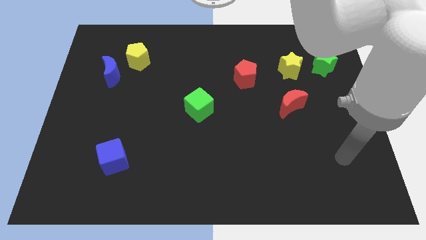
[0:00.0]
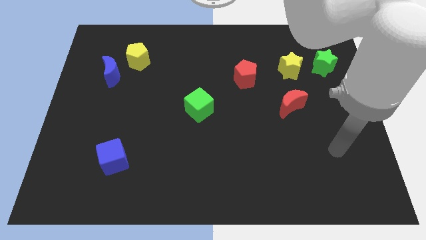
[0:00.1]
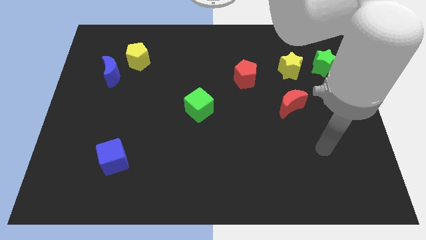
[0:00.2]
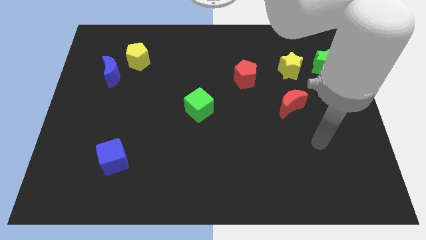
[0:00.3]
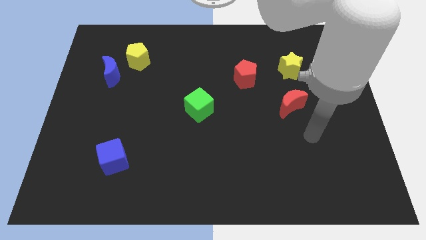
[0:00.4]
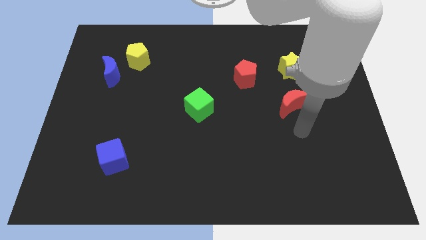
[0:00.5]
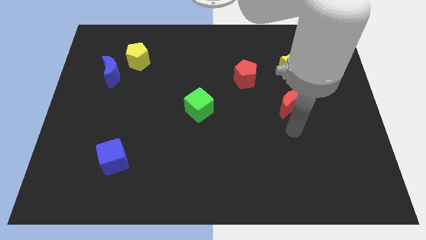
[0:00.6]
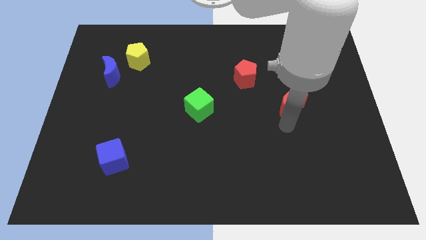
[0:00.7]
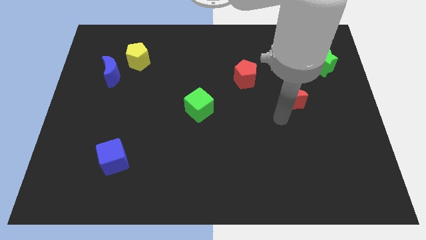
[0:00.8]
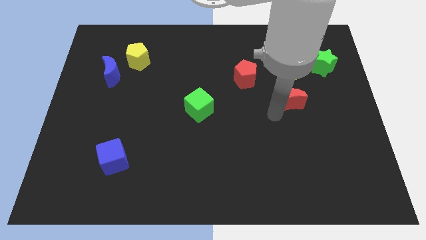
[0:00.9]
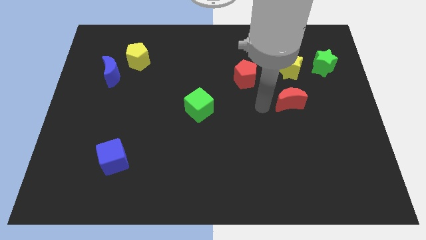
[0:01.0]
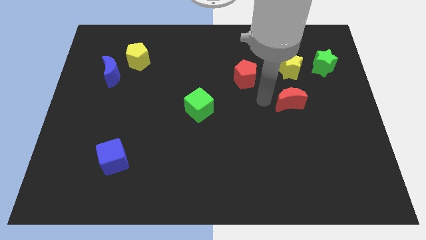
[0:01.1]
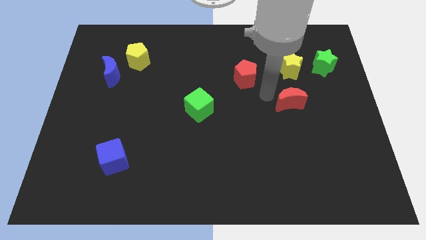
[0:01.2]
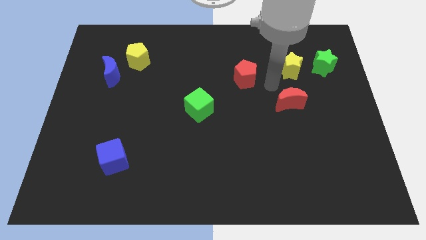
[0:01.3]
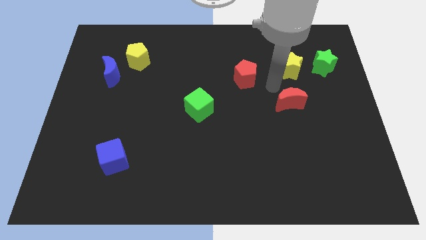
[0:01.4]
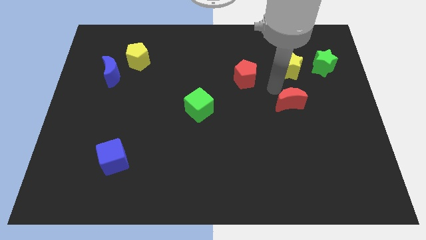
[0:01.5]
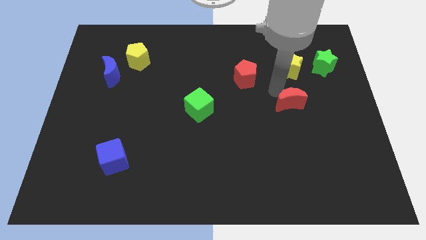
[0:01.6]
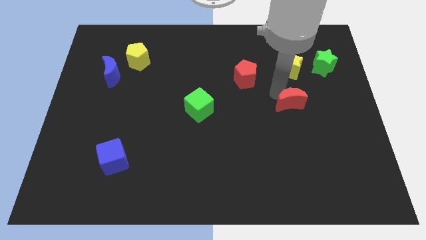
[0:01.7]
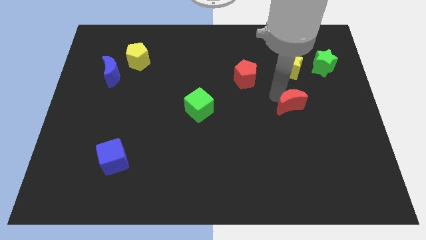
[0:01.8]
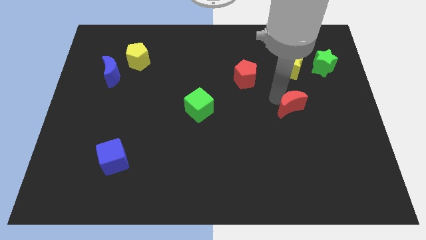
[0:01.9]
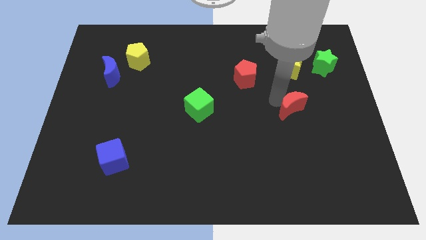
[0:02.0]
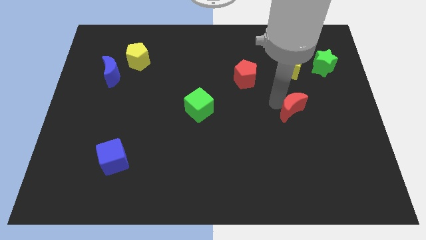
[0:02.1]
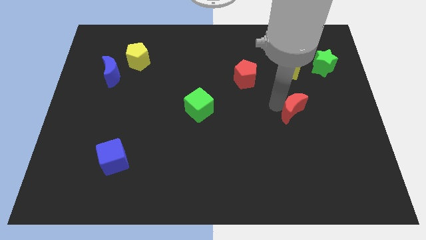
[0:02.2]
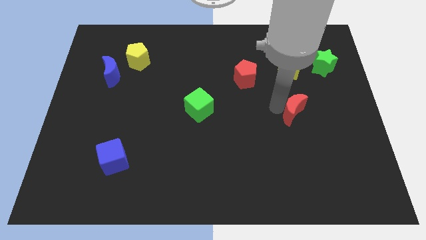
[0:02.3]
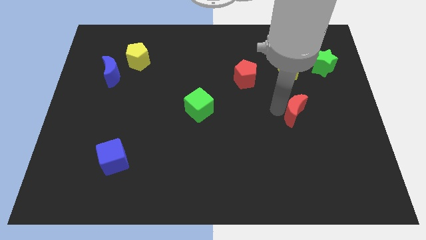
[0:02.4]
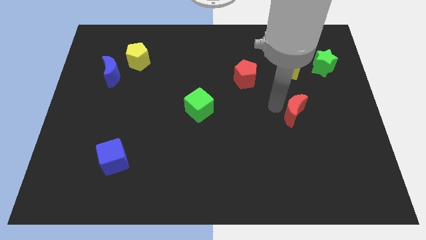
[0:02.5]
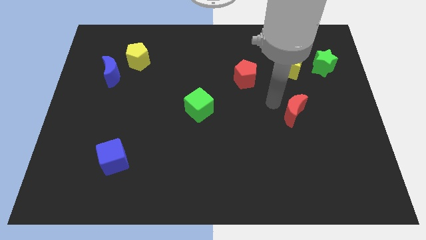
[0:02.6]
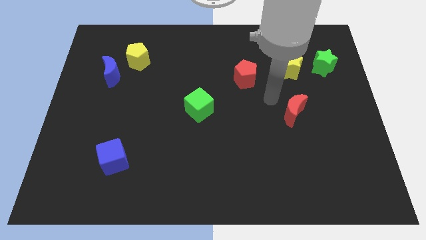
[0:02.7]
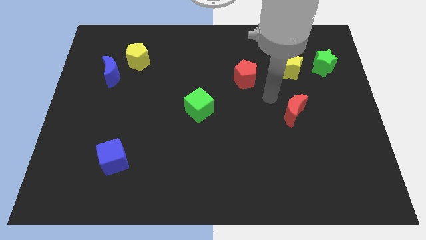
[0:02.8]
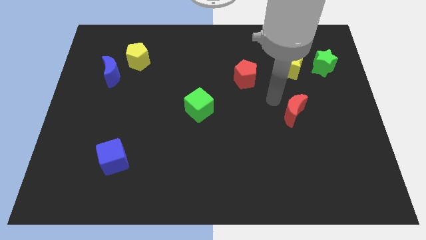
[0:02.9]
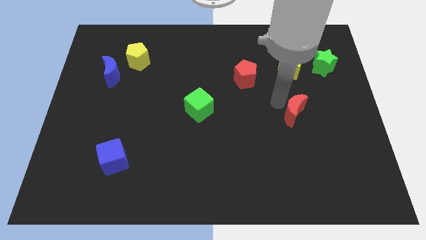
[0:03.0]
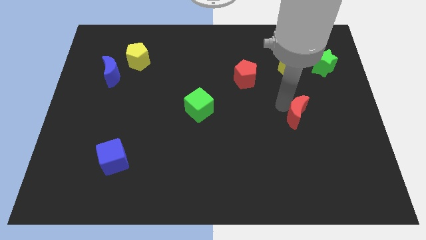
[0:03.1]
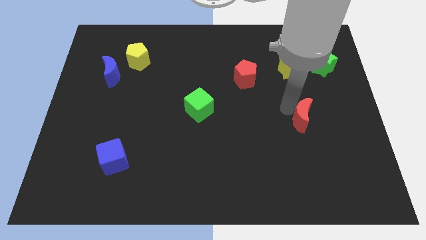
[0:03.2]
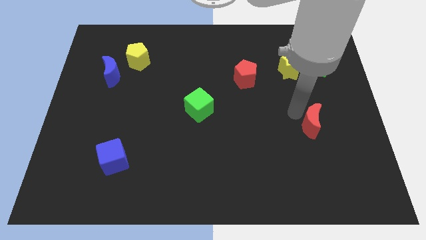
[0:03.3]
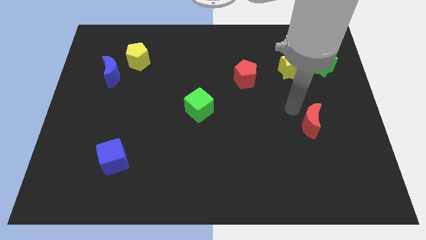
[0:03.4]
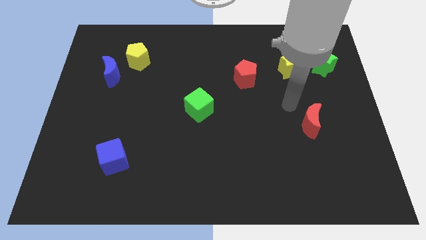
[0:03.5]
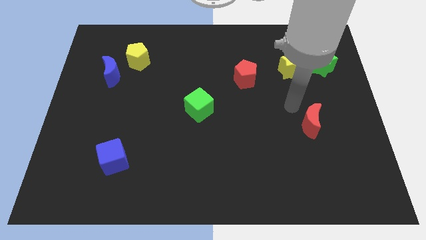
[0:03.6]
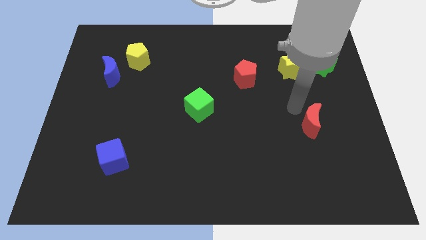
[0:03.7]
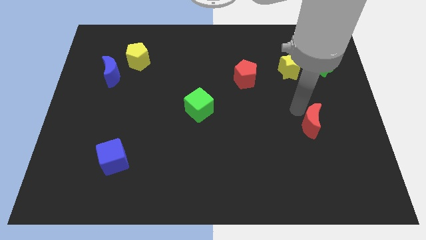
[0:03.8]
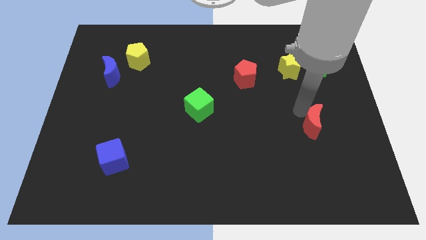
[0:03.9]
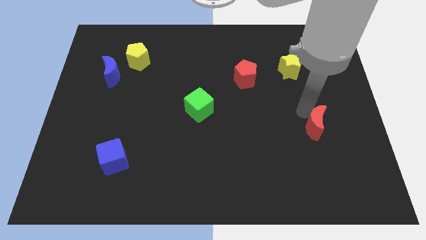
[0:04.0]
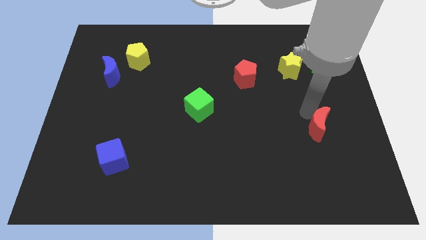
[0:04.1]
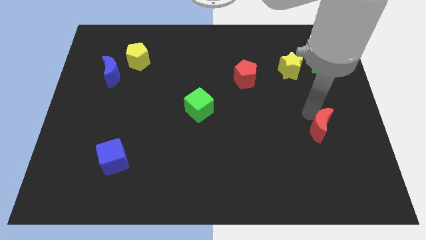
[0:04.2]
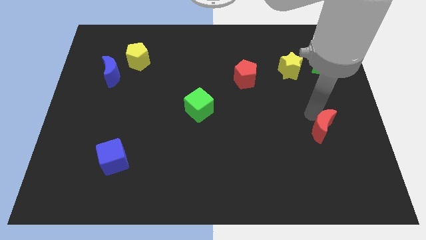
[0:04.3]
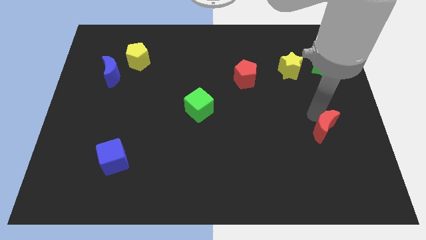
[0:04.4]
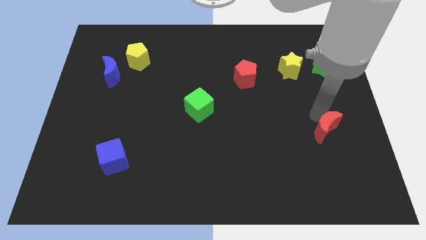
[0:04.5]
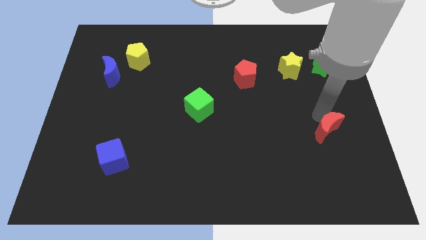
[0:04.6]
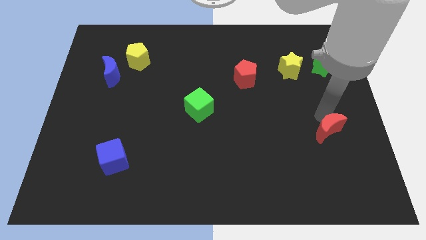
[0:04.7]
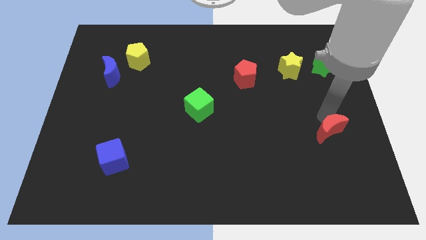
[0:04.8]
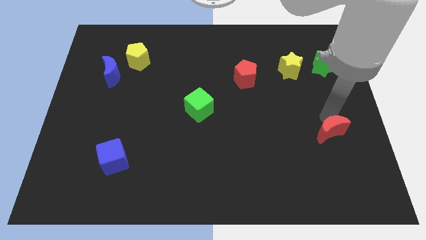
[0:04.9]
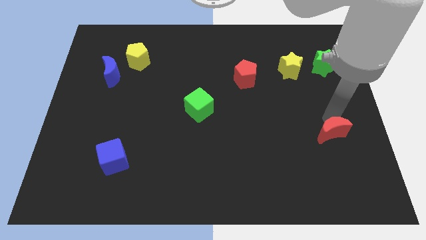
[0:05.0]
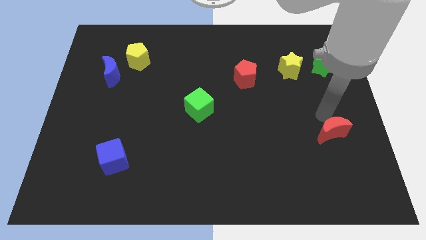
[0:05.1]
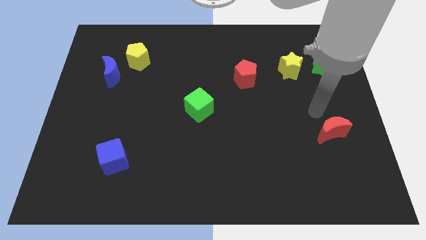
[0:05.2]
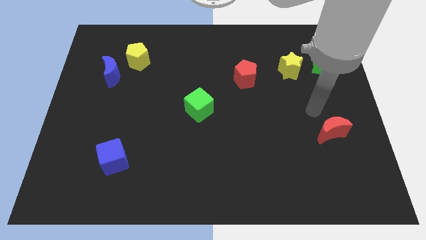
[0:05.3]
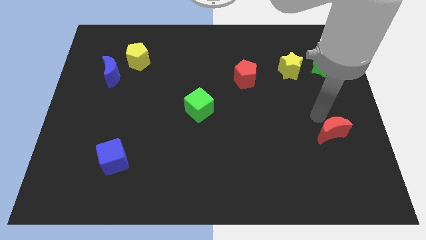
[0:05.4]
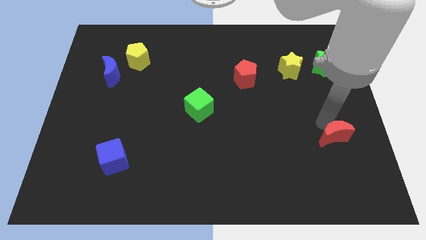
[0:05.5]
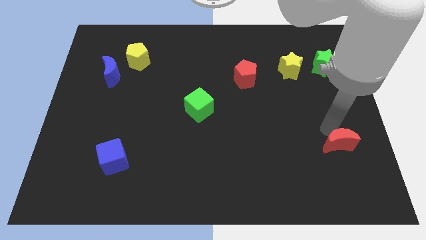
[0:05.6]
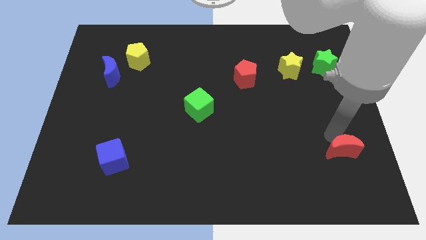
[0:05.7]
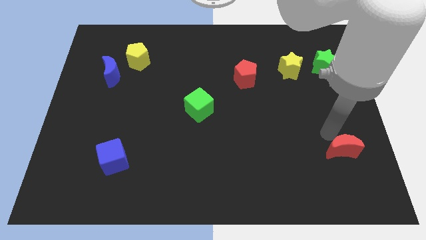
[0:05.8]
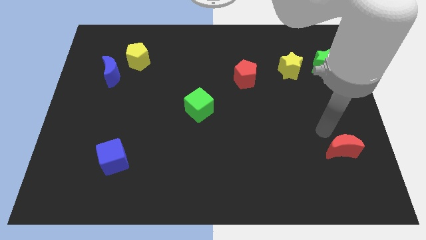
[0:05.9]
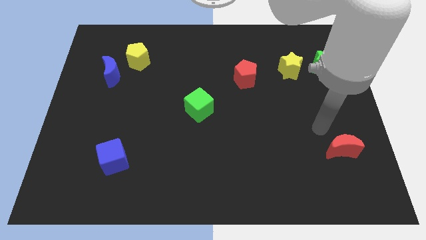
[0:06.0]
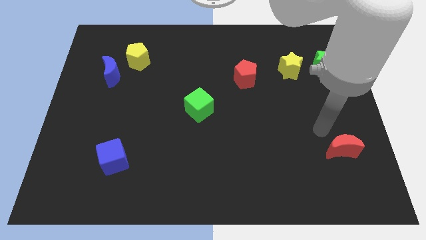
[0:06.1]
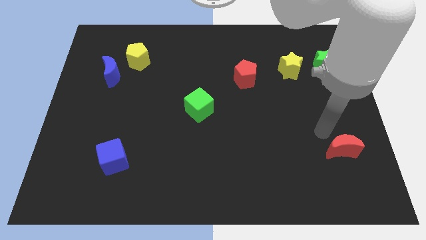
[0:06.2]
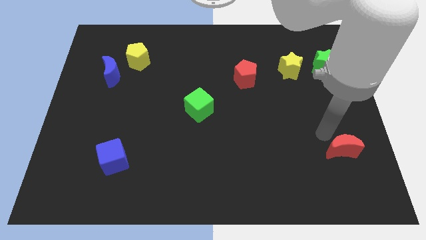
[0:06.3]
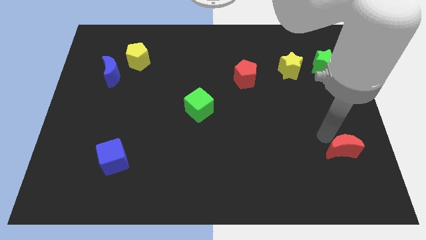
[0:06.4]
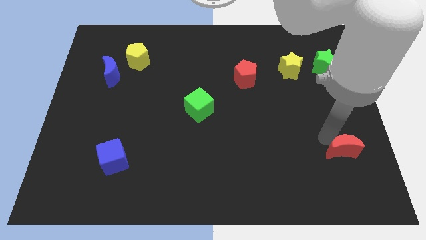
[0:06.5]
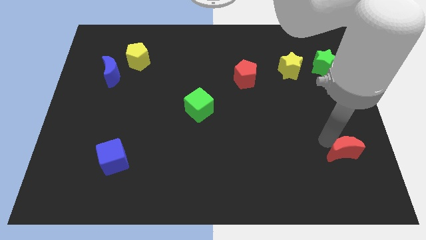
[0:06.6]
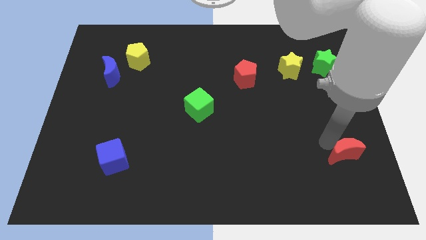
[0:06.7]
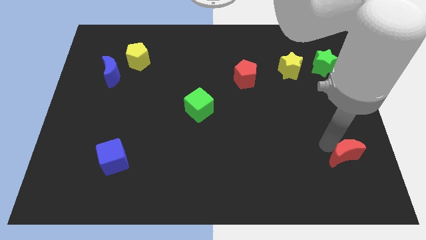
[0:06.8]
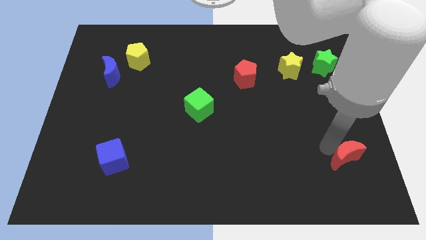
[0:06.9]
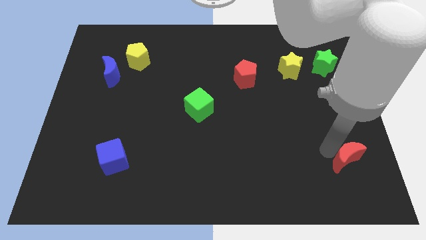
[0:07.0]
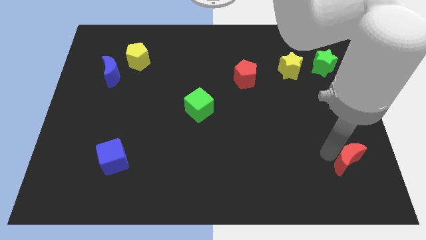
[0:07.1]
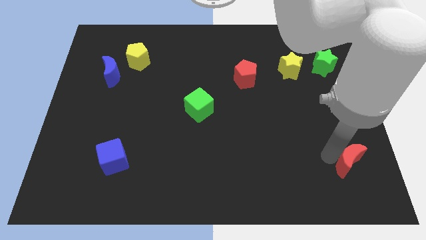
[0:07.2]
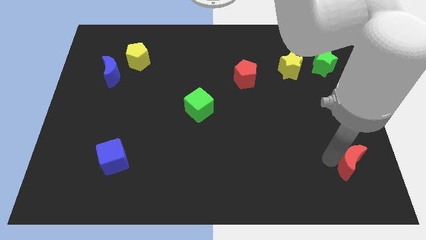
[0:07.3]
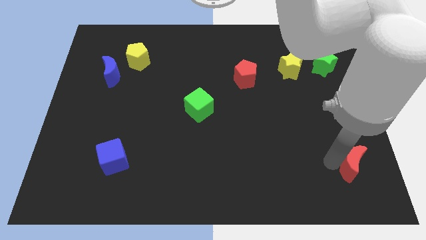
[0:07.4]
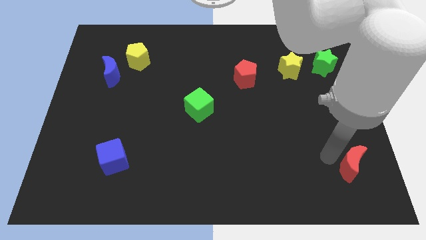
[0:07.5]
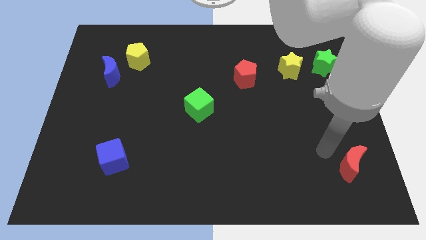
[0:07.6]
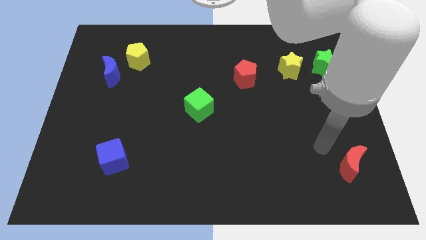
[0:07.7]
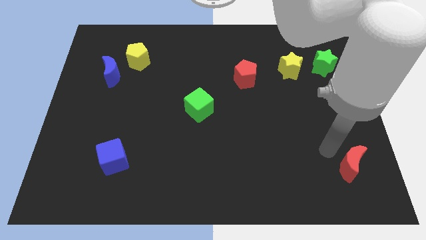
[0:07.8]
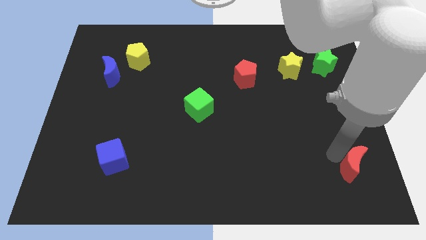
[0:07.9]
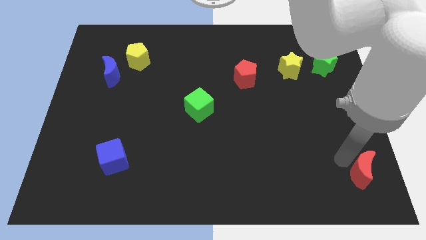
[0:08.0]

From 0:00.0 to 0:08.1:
move the red moon to the bottom right of the board
